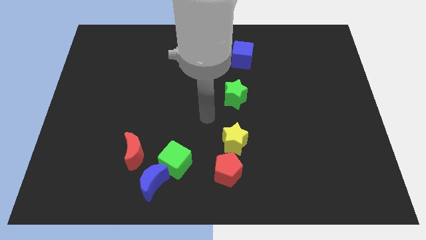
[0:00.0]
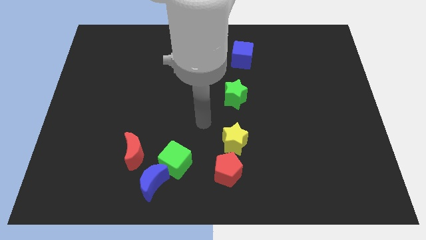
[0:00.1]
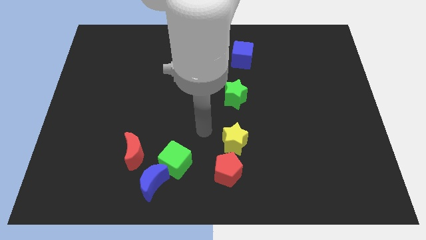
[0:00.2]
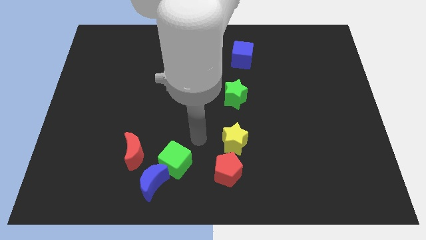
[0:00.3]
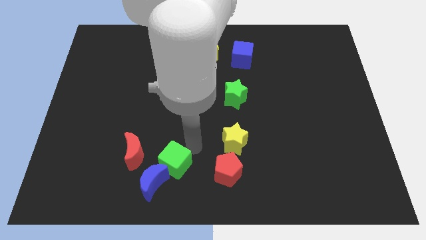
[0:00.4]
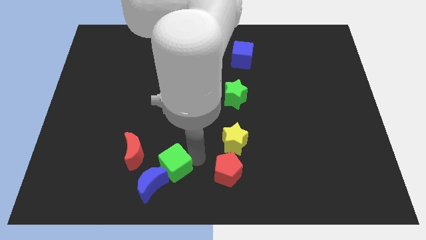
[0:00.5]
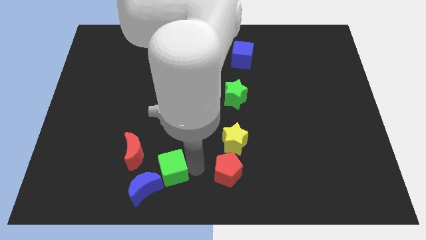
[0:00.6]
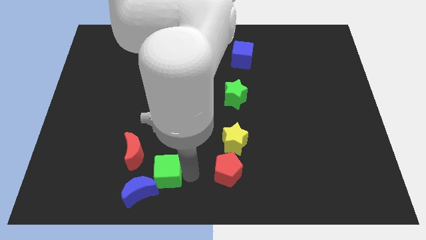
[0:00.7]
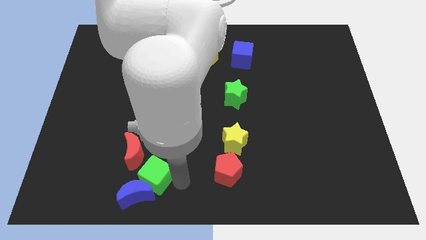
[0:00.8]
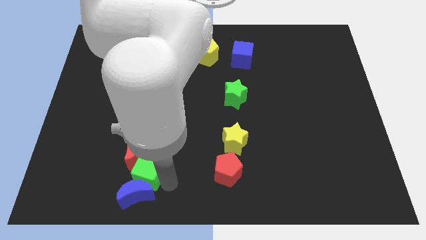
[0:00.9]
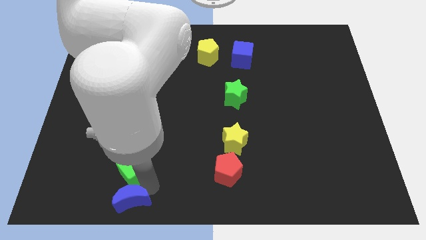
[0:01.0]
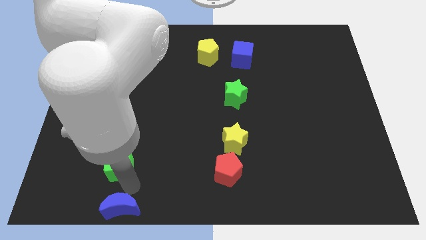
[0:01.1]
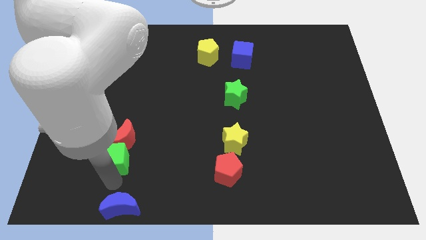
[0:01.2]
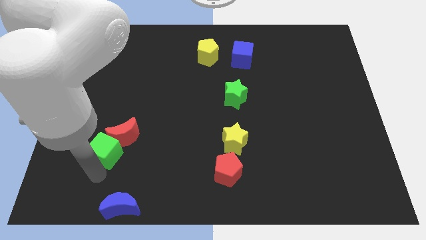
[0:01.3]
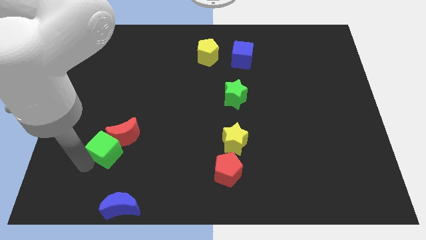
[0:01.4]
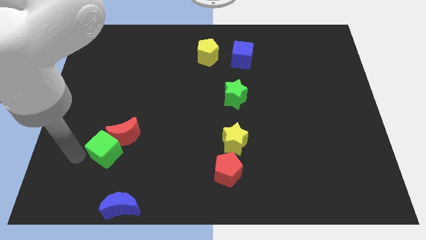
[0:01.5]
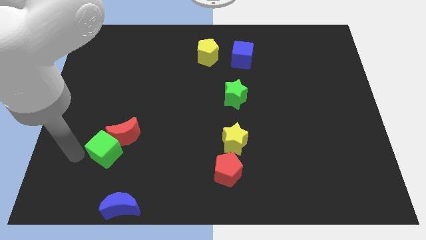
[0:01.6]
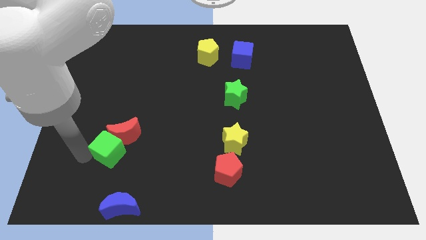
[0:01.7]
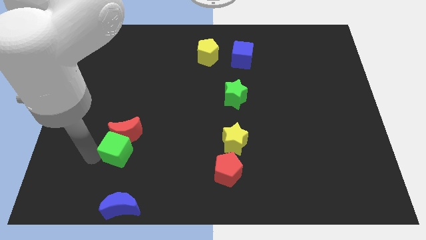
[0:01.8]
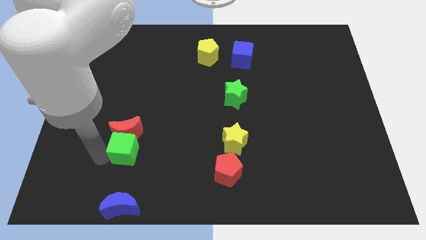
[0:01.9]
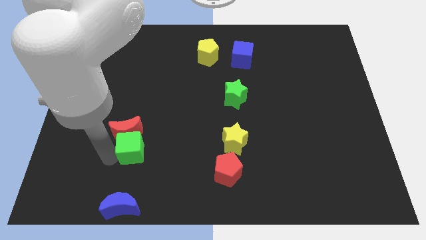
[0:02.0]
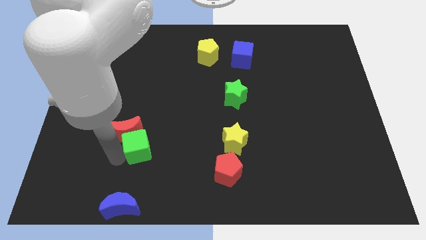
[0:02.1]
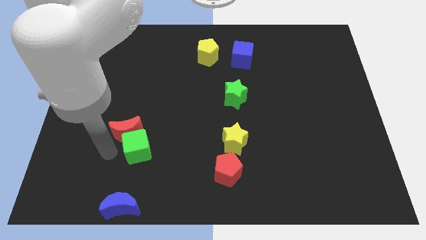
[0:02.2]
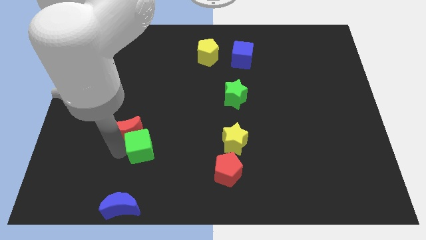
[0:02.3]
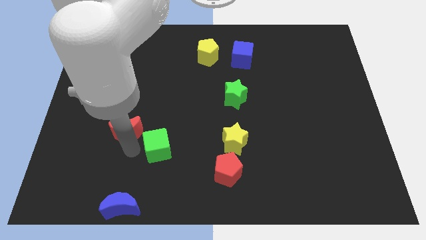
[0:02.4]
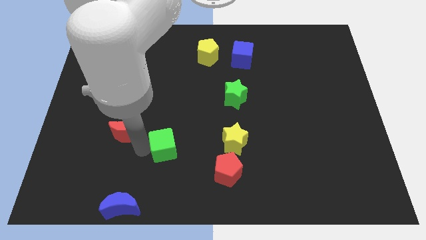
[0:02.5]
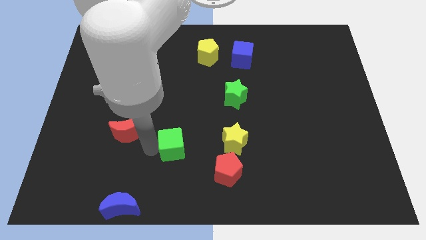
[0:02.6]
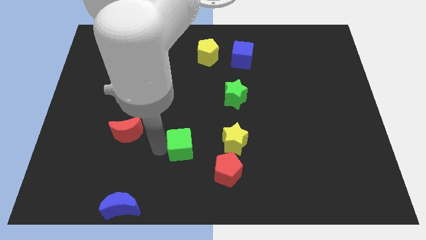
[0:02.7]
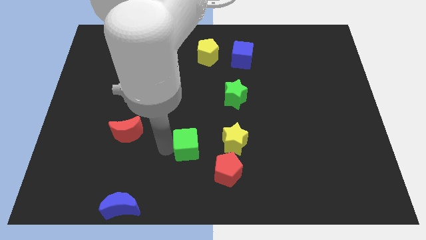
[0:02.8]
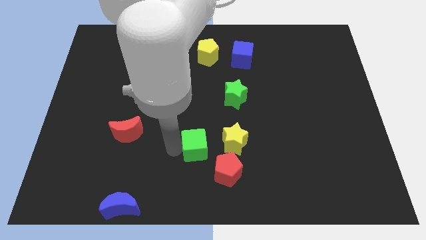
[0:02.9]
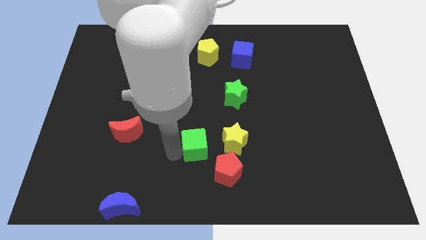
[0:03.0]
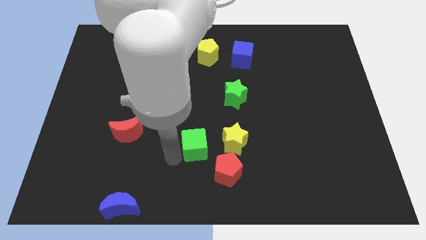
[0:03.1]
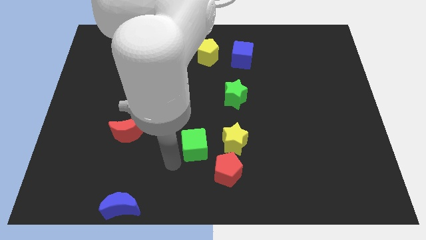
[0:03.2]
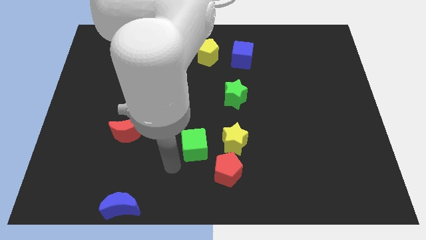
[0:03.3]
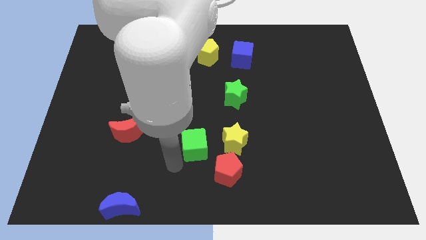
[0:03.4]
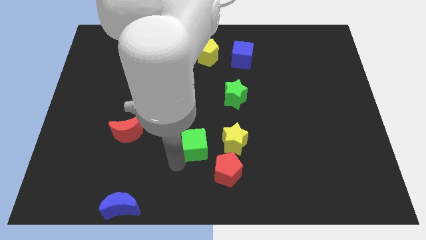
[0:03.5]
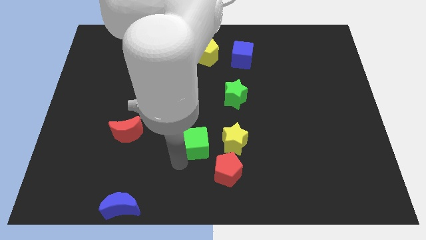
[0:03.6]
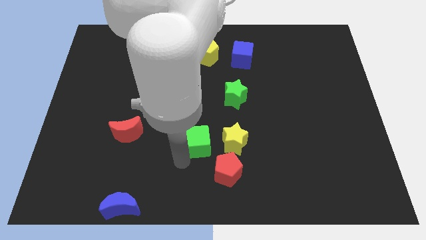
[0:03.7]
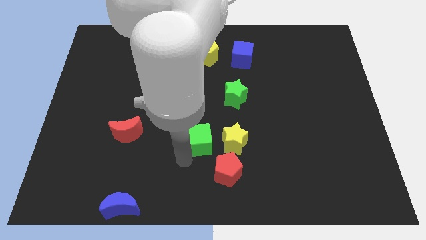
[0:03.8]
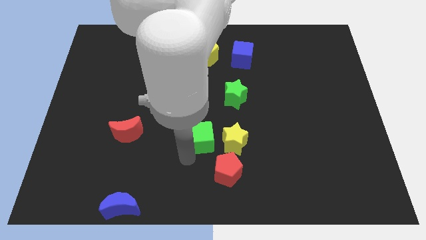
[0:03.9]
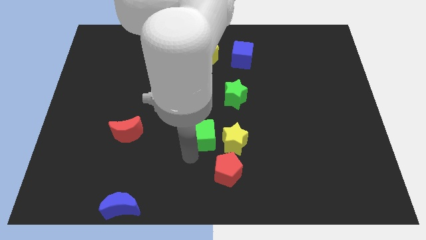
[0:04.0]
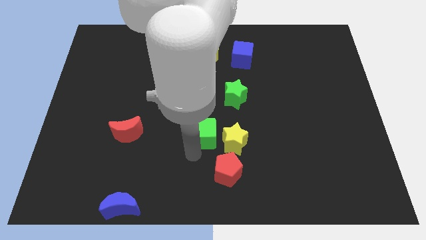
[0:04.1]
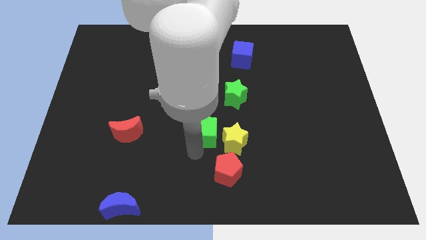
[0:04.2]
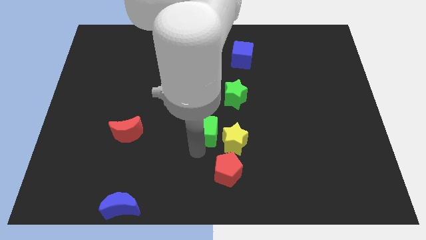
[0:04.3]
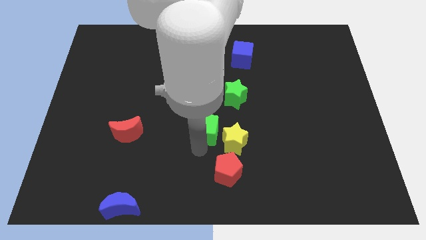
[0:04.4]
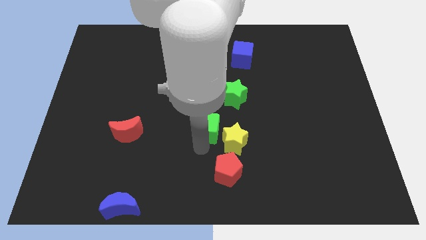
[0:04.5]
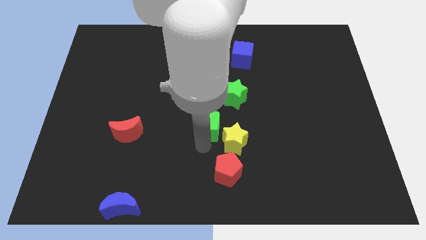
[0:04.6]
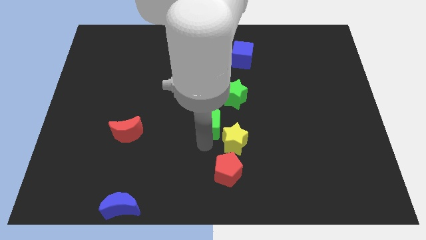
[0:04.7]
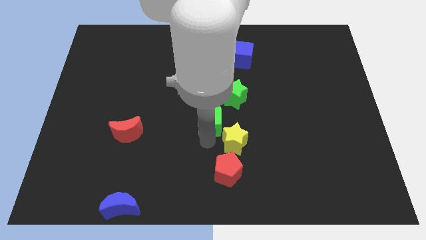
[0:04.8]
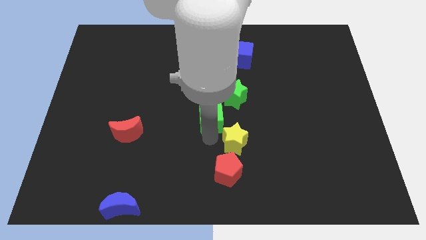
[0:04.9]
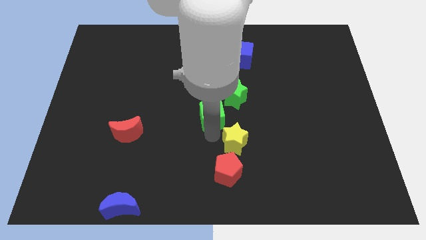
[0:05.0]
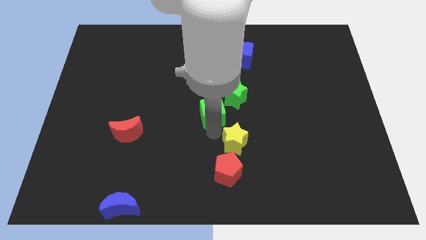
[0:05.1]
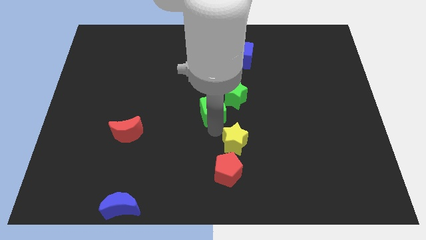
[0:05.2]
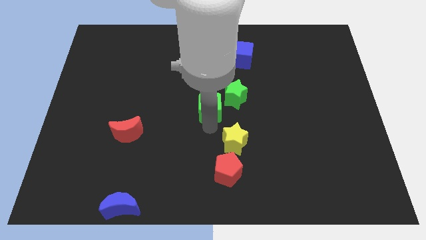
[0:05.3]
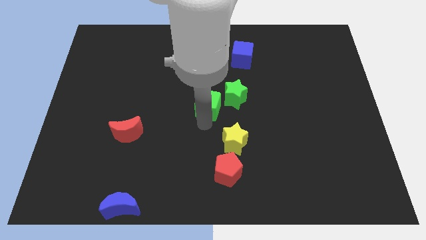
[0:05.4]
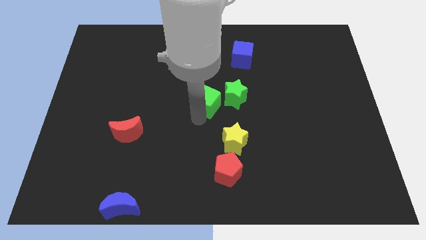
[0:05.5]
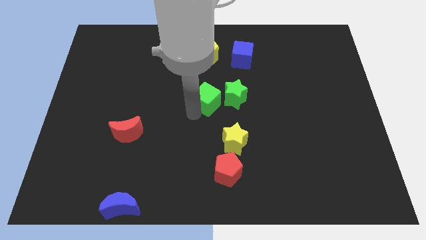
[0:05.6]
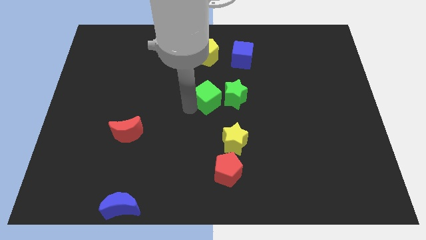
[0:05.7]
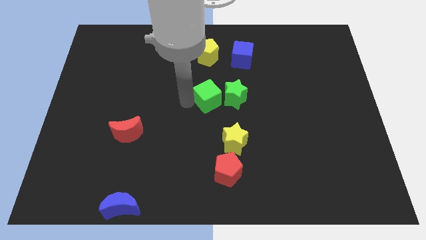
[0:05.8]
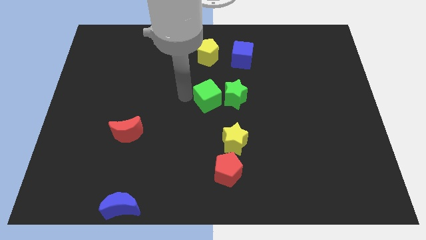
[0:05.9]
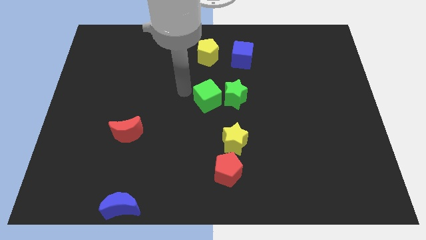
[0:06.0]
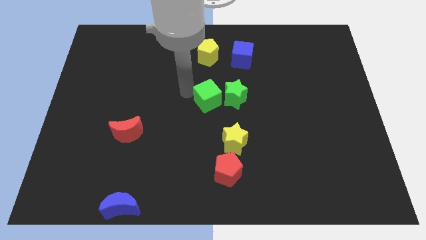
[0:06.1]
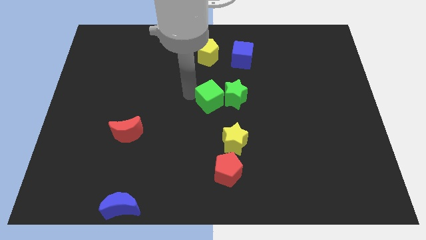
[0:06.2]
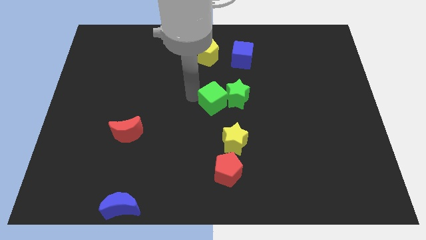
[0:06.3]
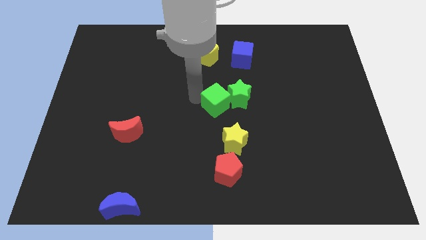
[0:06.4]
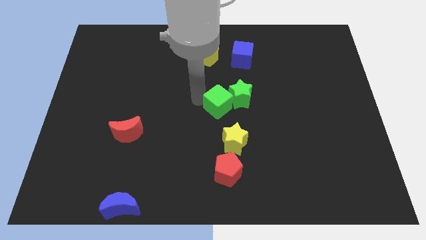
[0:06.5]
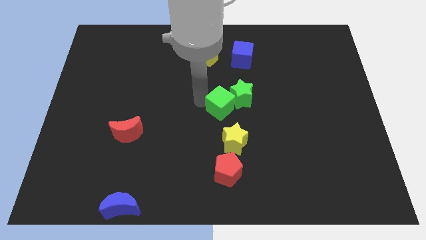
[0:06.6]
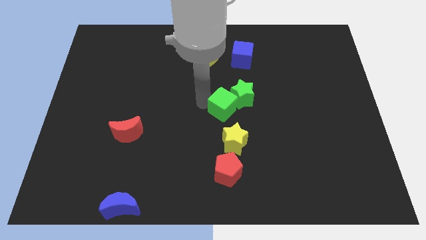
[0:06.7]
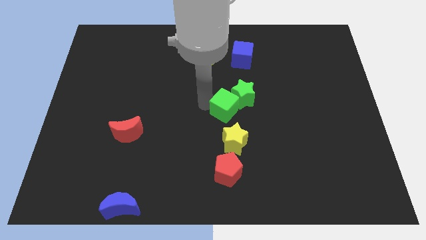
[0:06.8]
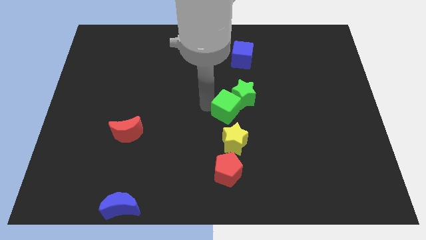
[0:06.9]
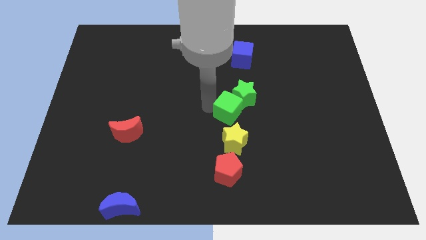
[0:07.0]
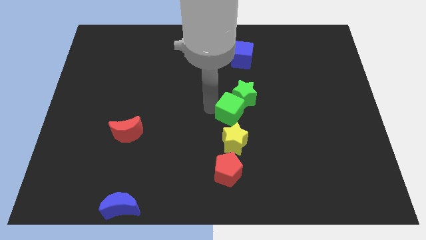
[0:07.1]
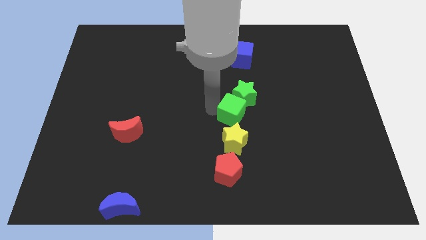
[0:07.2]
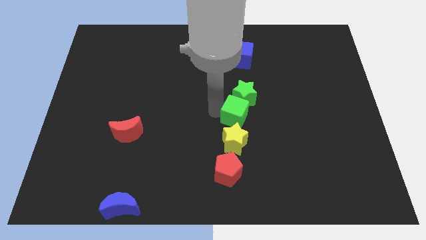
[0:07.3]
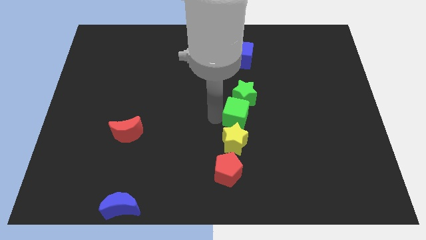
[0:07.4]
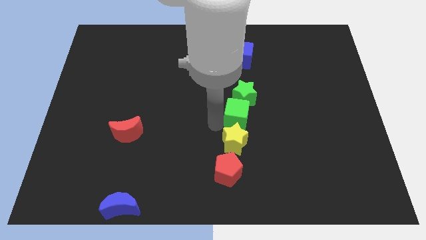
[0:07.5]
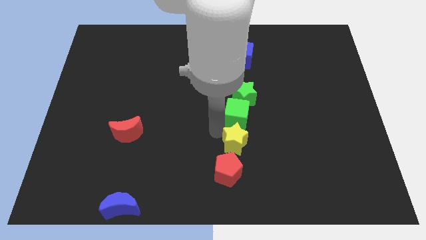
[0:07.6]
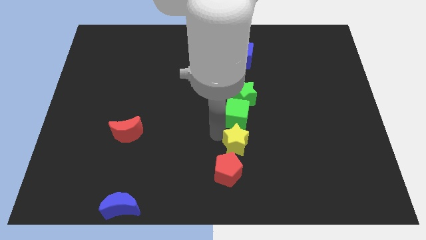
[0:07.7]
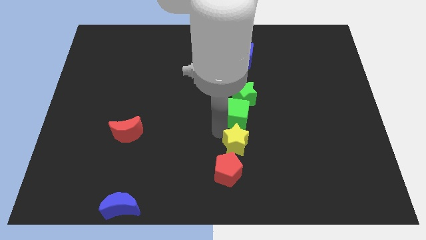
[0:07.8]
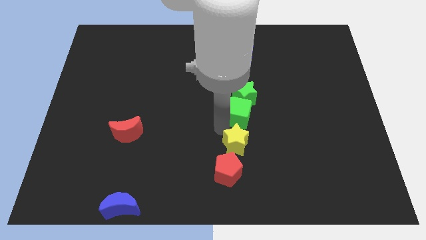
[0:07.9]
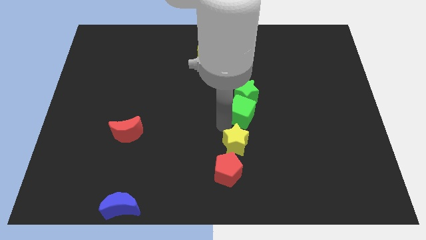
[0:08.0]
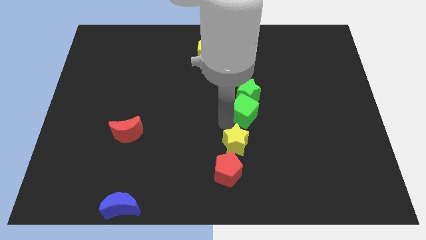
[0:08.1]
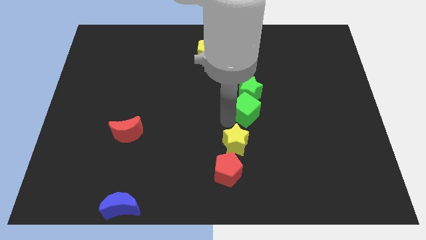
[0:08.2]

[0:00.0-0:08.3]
slide the green cube up and right diagonally
